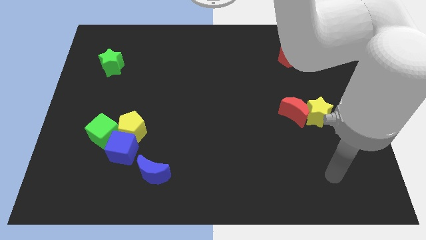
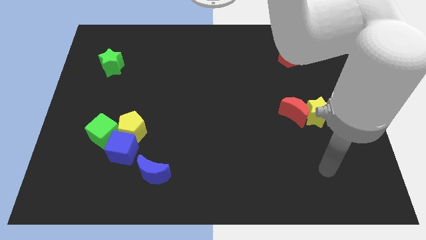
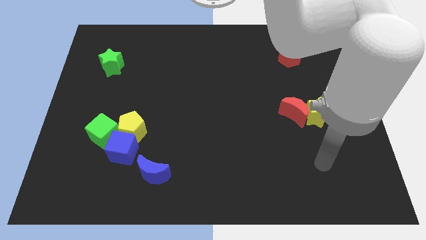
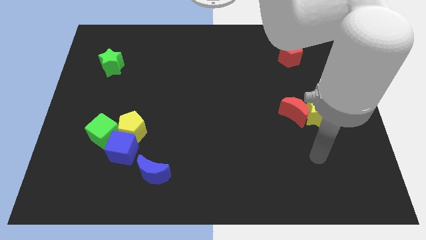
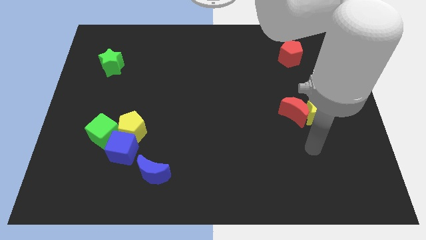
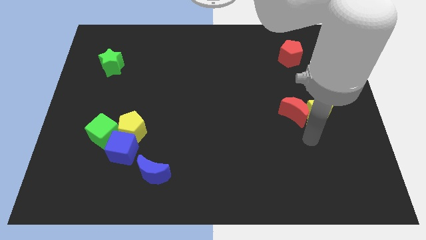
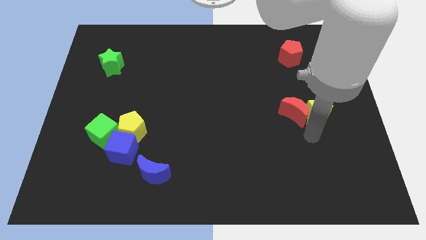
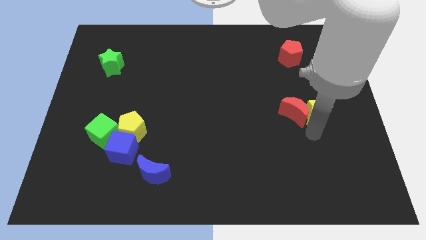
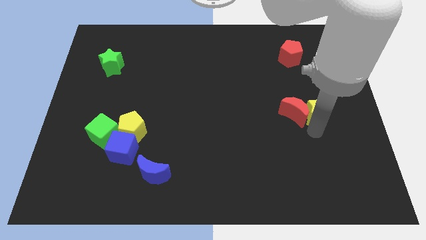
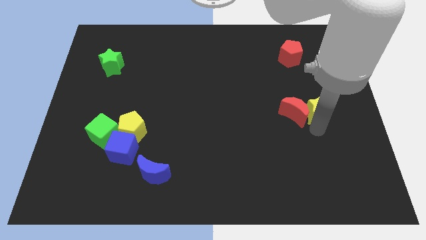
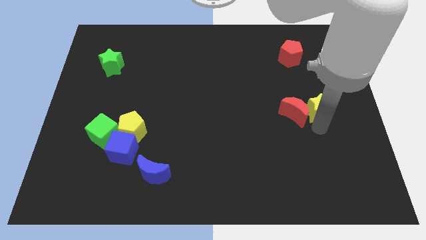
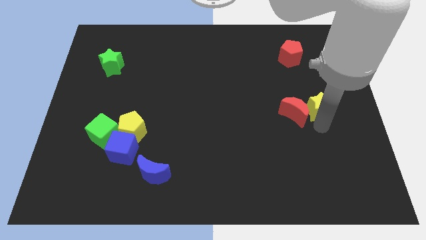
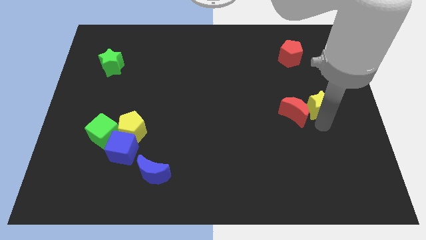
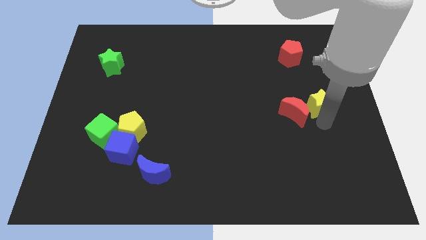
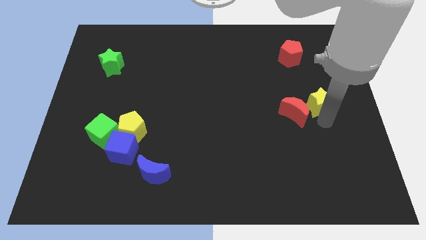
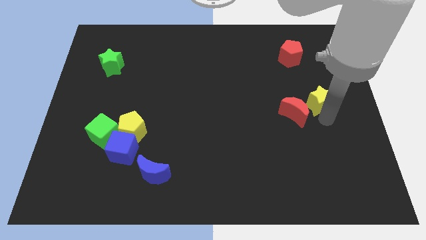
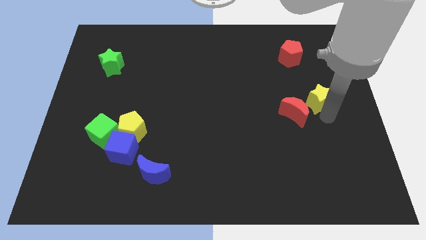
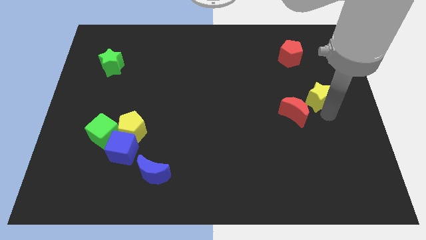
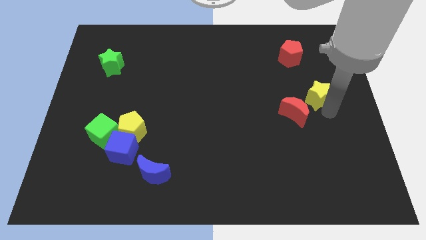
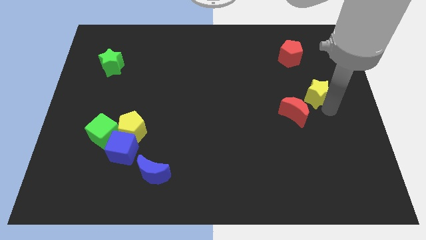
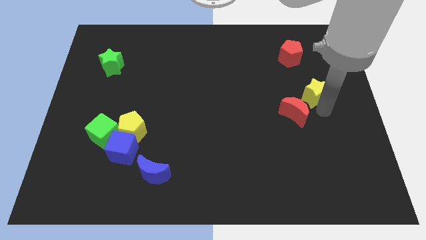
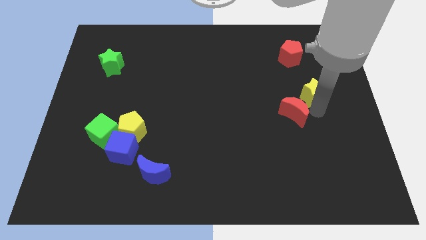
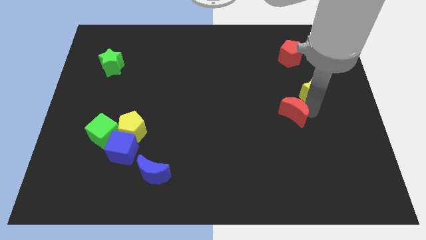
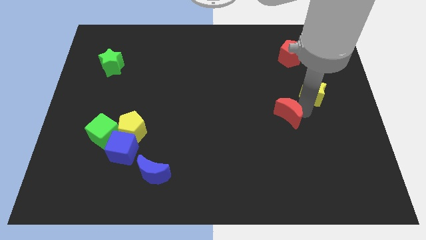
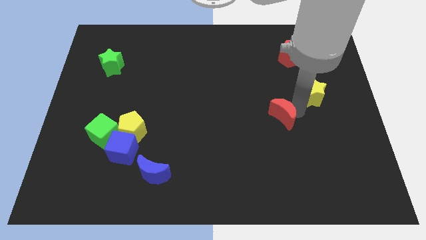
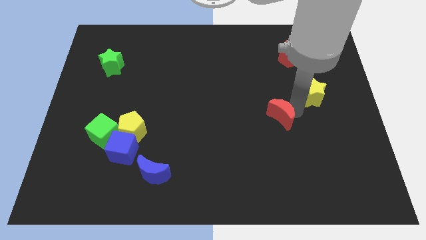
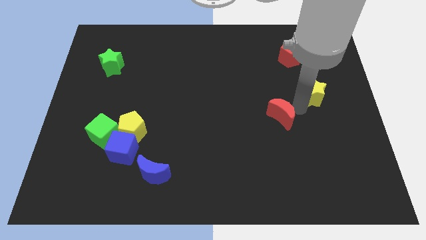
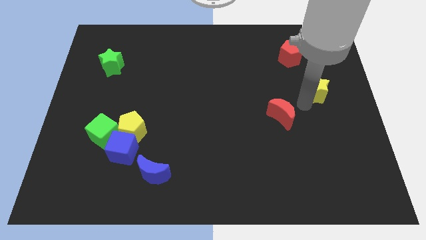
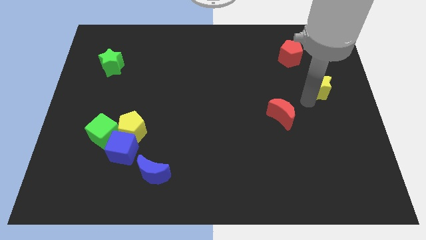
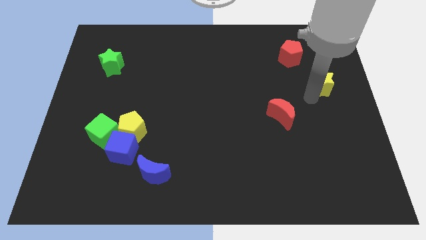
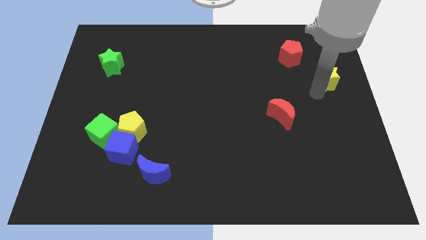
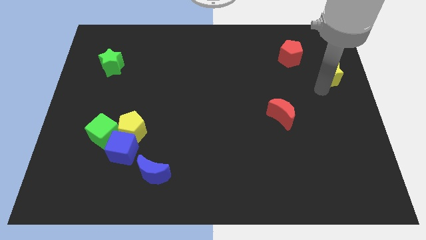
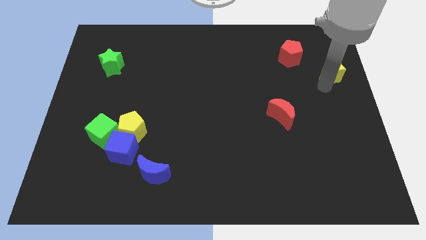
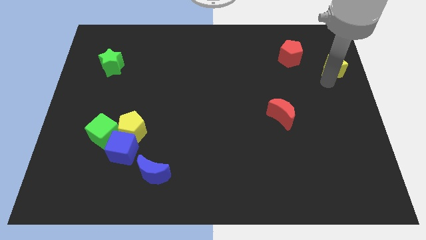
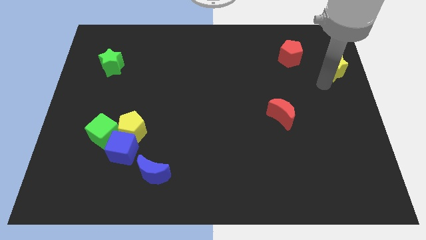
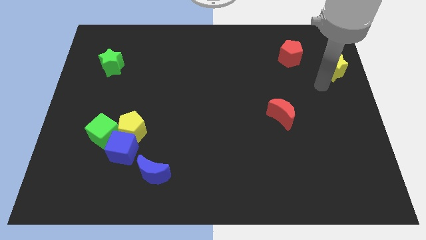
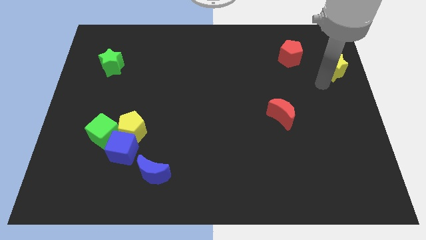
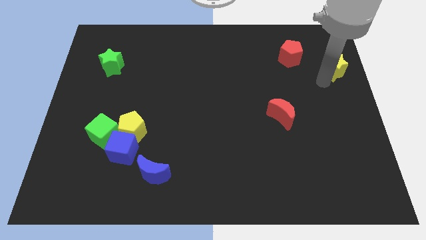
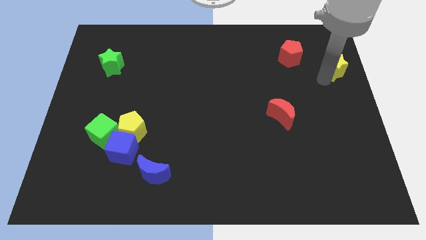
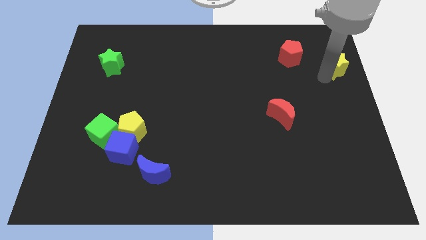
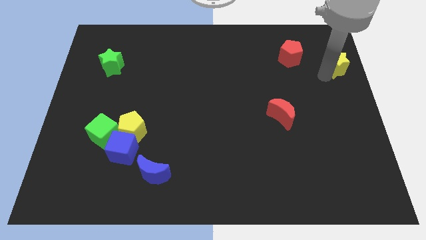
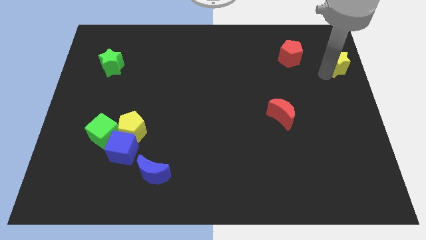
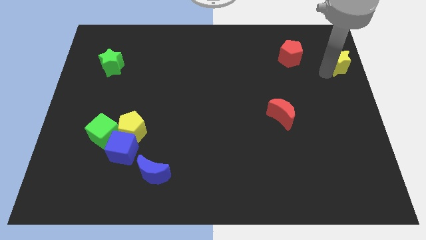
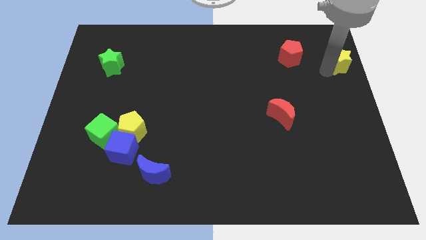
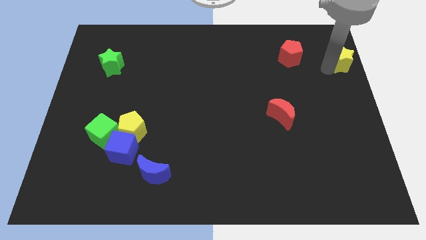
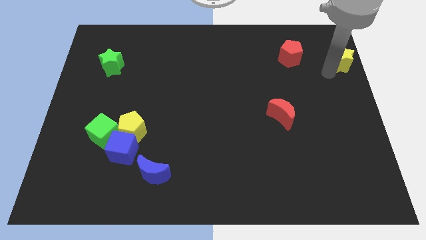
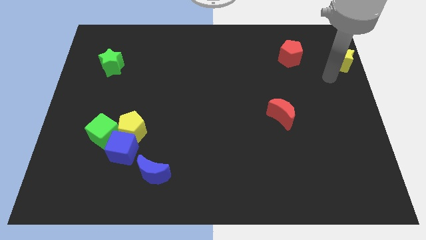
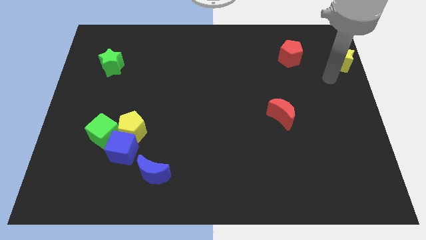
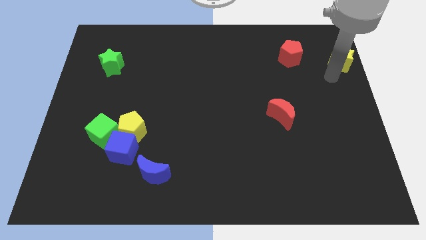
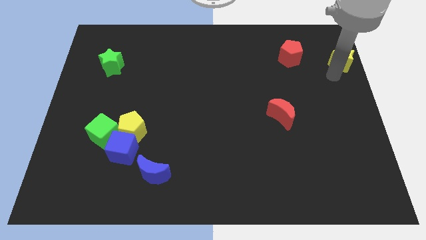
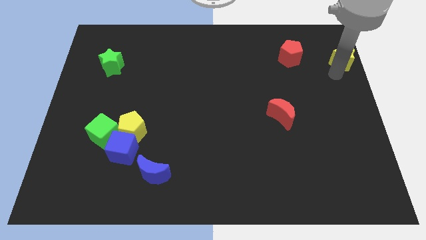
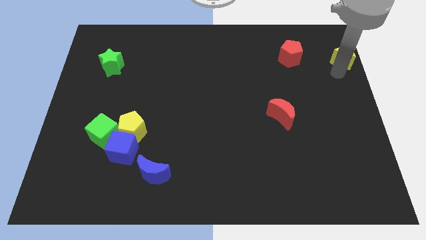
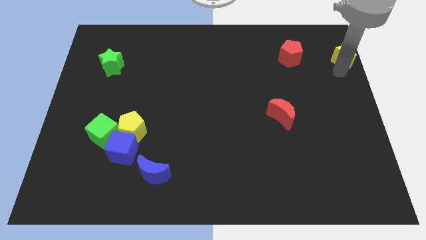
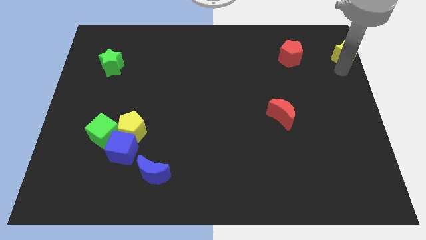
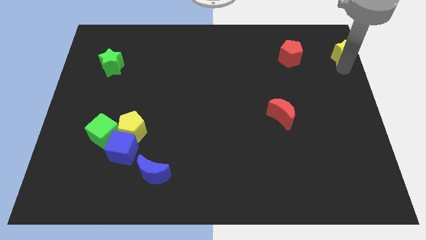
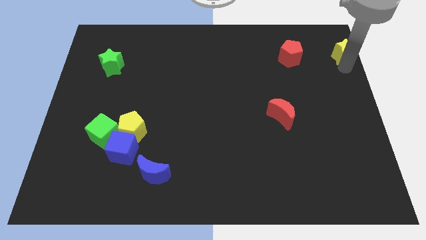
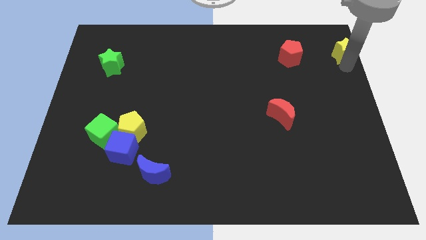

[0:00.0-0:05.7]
move the yellow star to the upper right corner

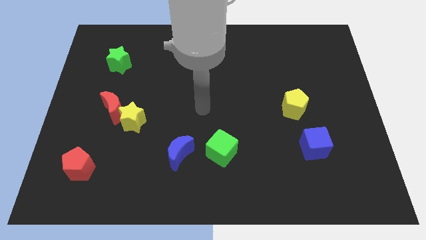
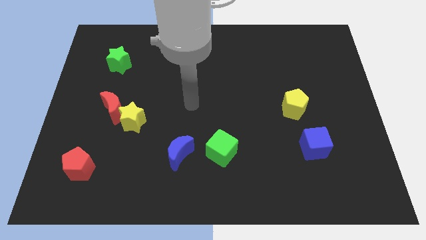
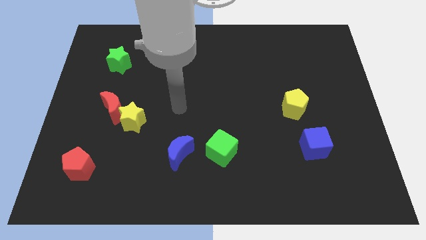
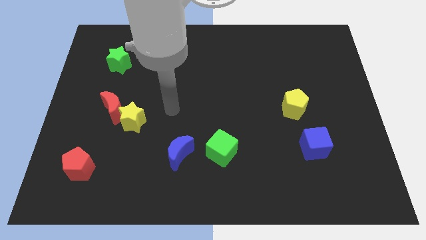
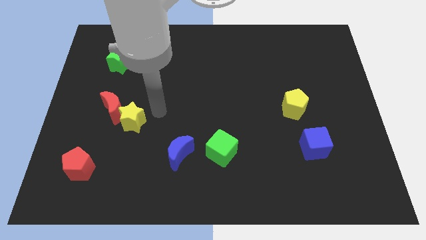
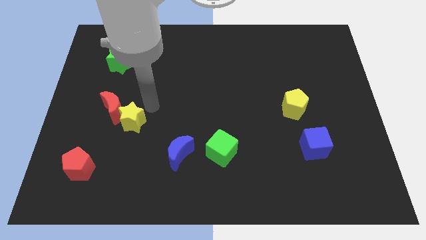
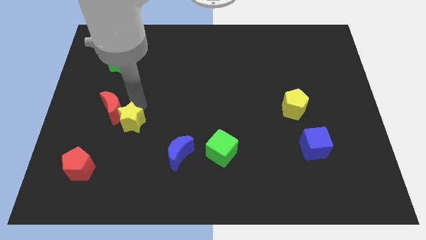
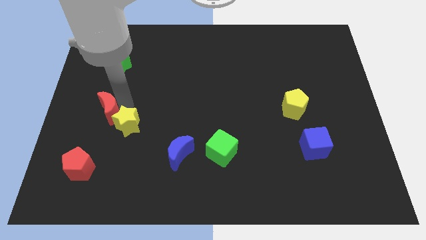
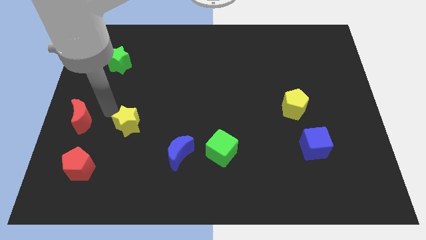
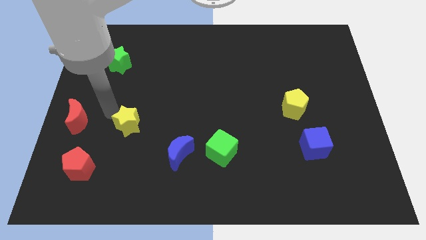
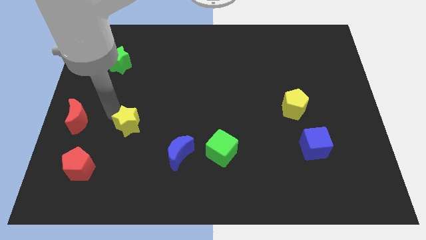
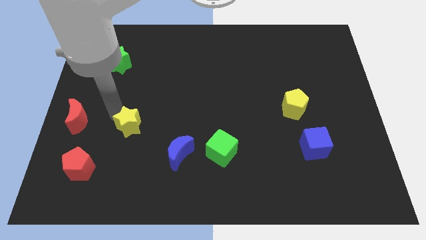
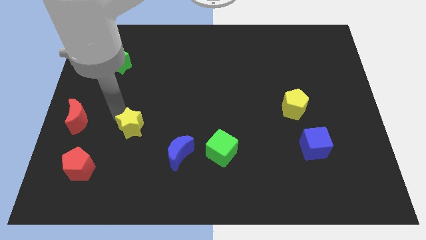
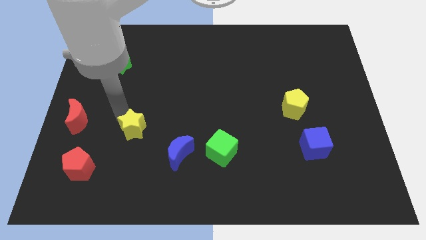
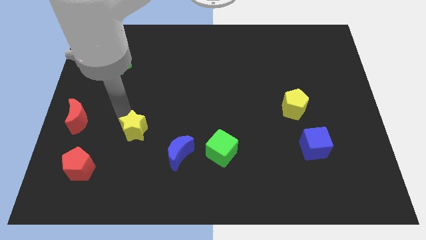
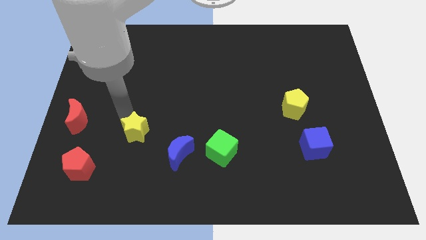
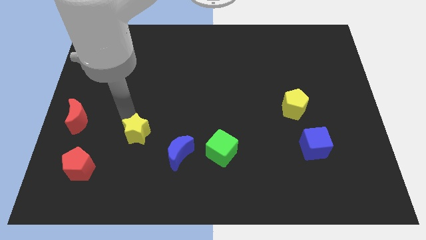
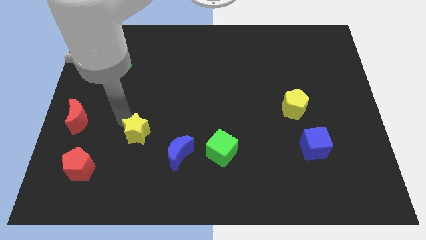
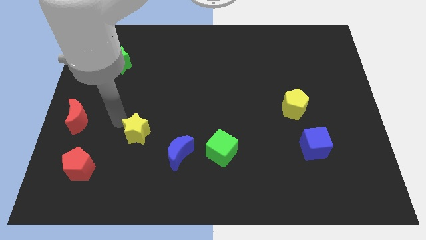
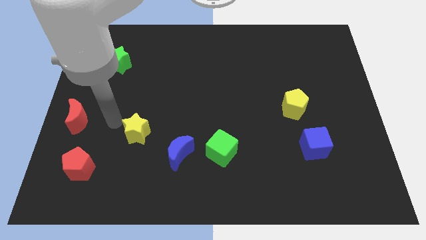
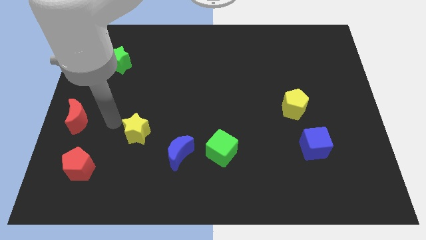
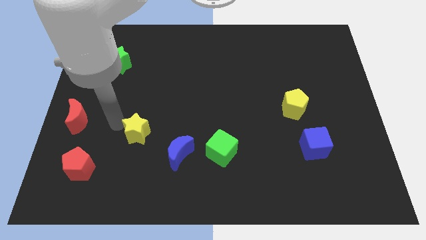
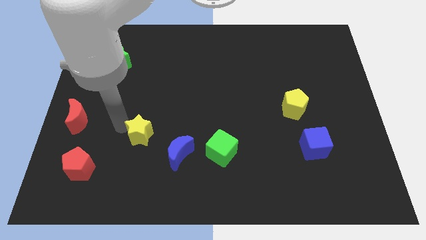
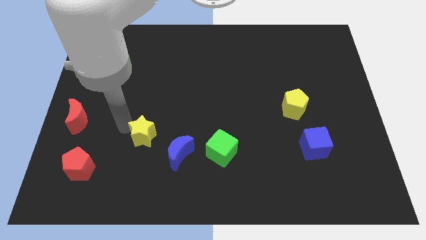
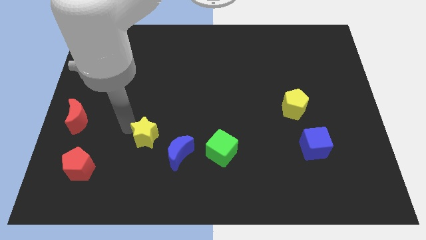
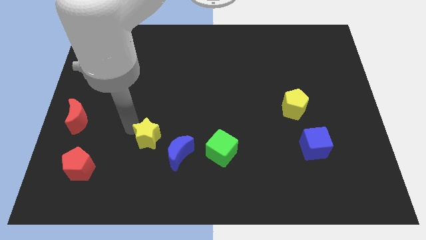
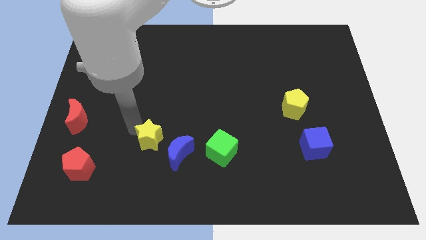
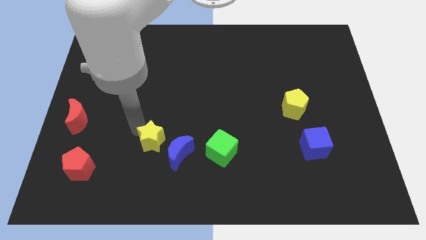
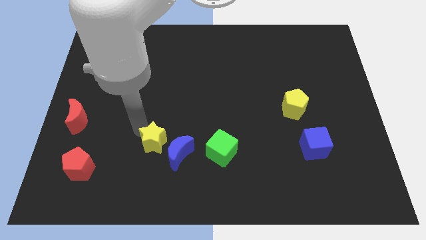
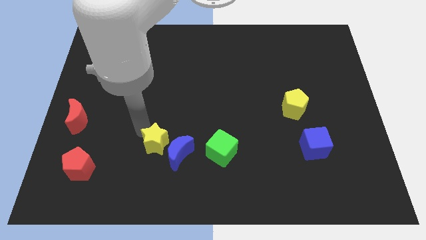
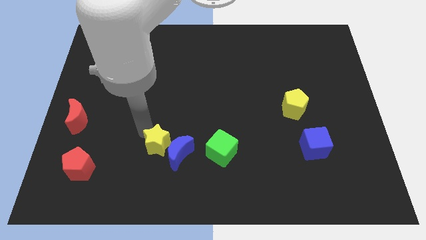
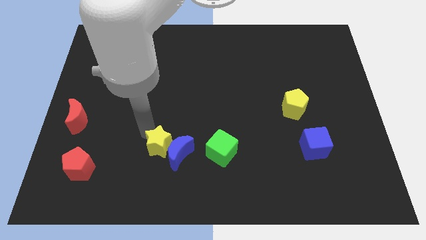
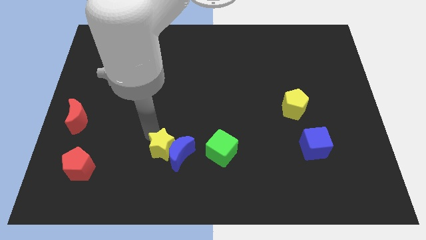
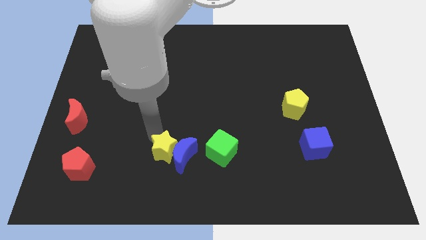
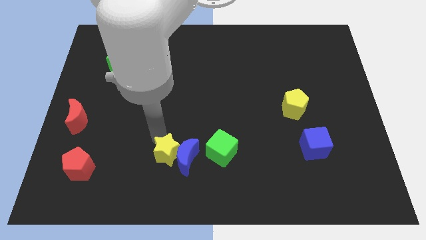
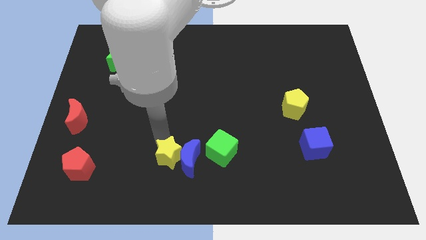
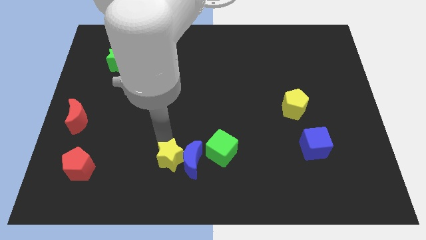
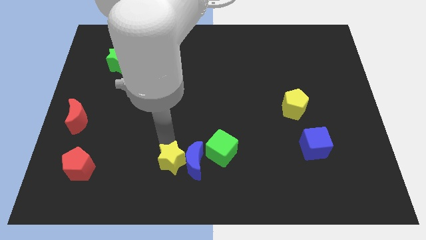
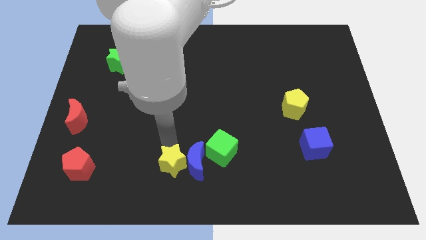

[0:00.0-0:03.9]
slide the yellow star to the bottom side
